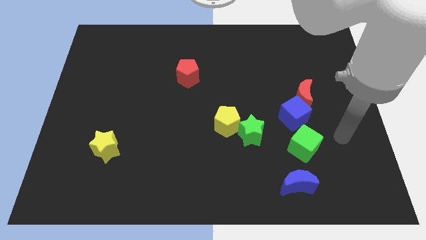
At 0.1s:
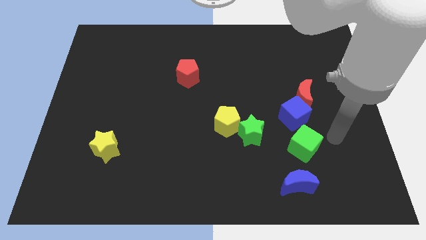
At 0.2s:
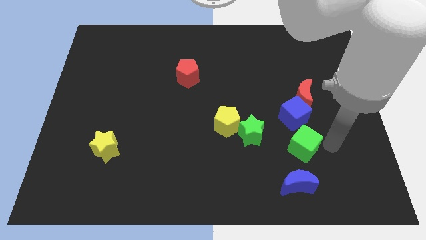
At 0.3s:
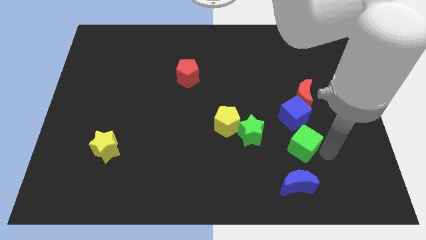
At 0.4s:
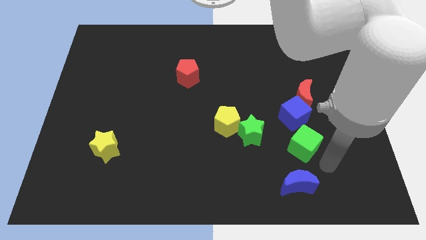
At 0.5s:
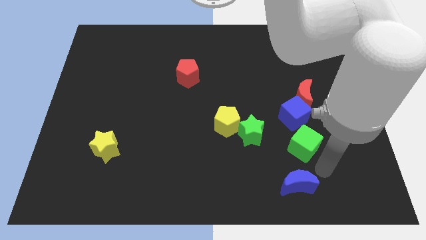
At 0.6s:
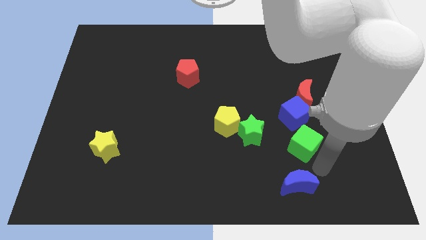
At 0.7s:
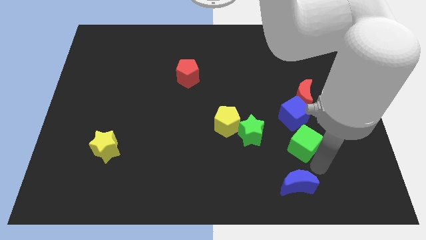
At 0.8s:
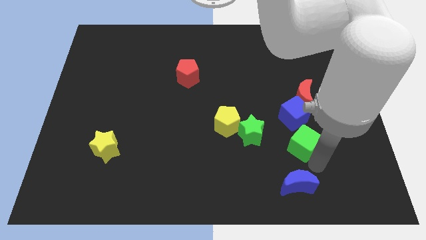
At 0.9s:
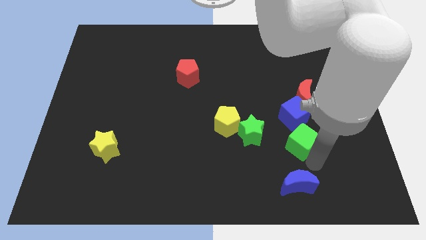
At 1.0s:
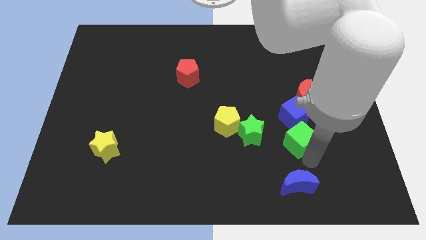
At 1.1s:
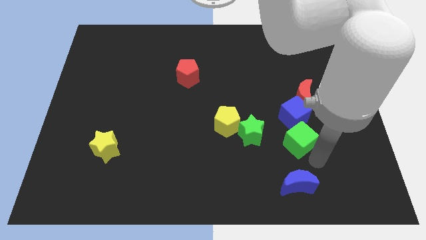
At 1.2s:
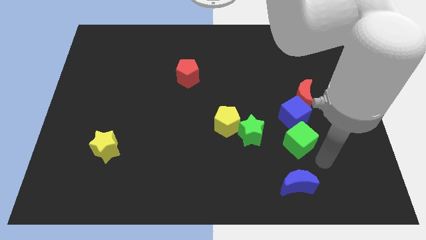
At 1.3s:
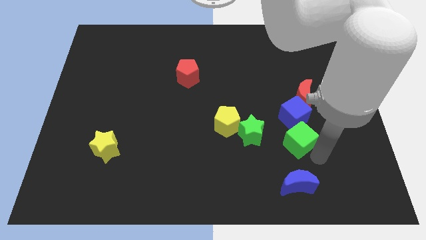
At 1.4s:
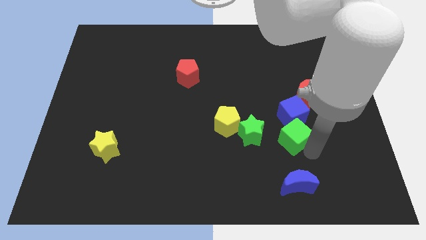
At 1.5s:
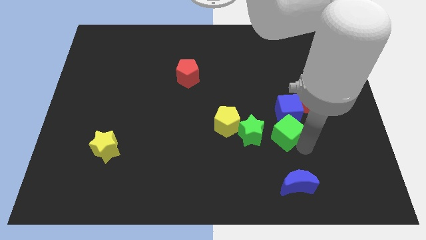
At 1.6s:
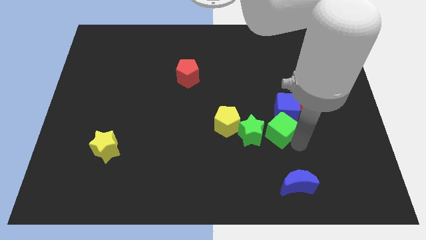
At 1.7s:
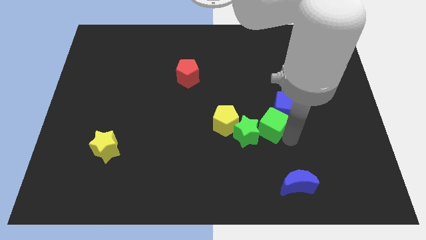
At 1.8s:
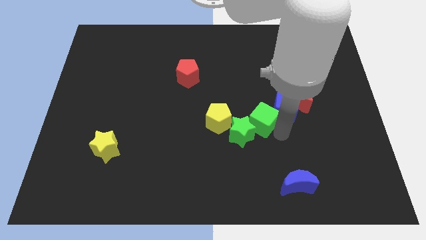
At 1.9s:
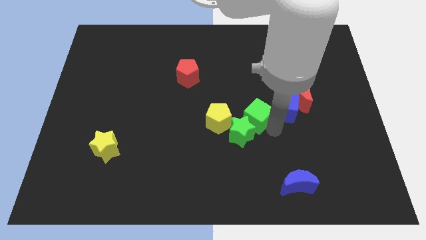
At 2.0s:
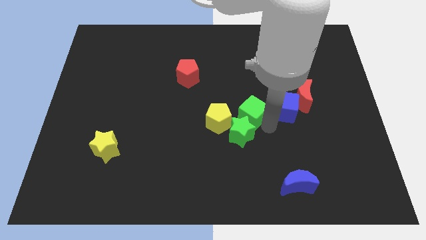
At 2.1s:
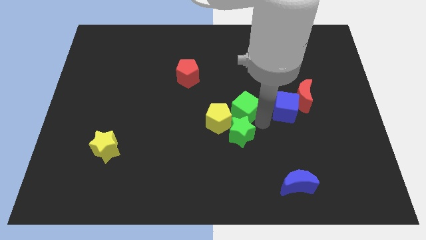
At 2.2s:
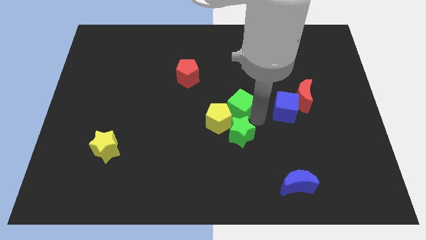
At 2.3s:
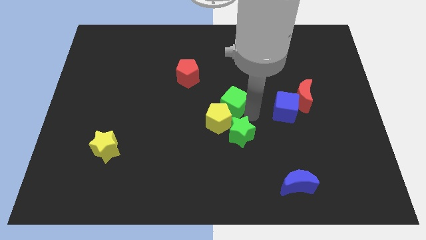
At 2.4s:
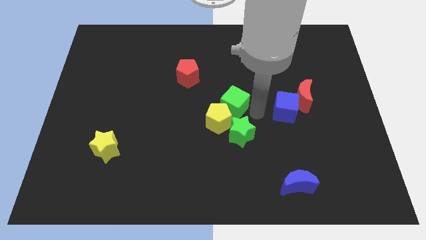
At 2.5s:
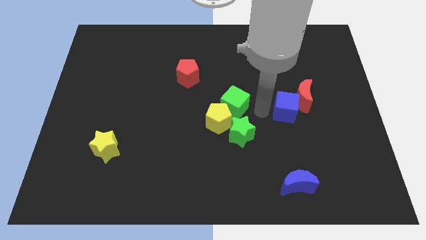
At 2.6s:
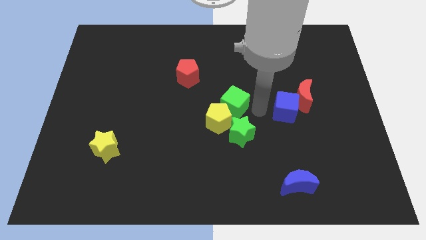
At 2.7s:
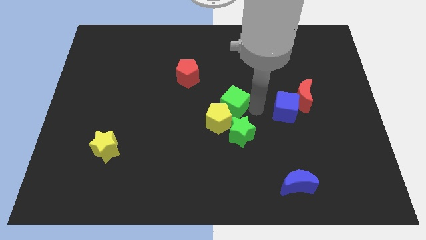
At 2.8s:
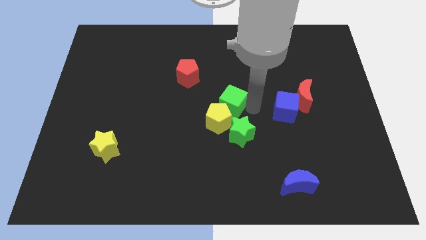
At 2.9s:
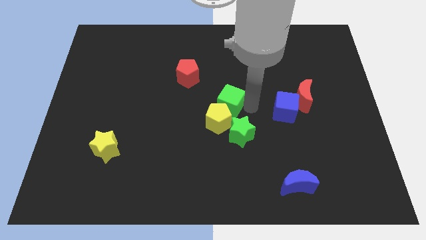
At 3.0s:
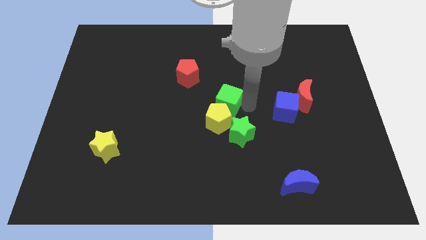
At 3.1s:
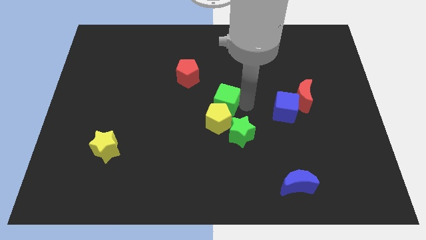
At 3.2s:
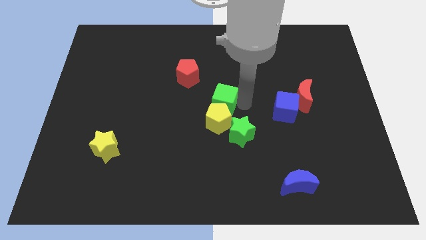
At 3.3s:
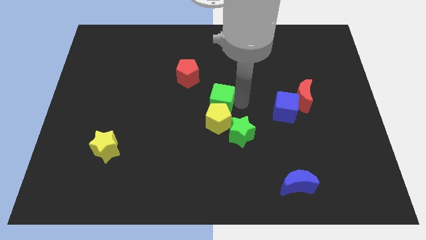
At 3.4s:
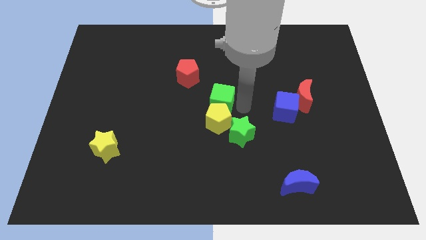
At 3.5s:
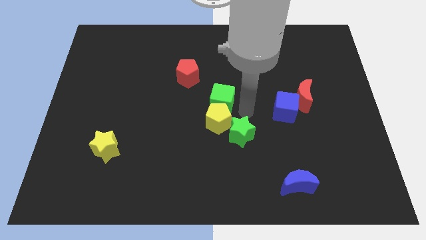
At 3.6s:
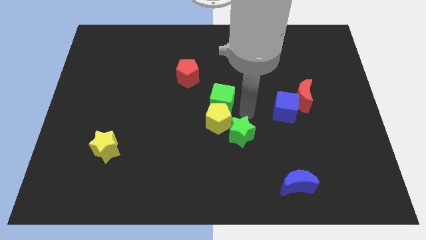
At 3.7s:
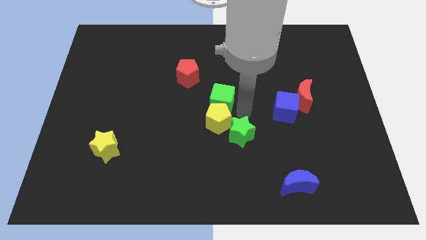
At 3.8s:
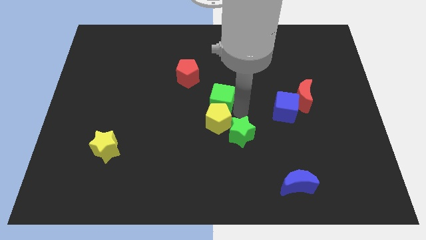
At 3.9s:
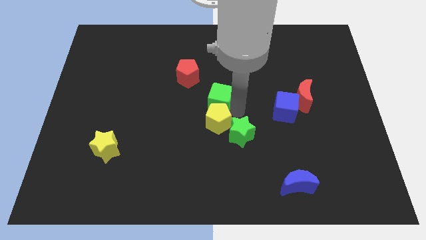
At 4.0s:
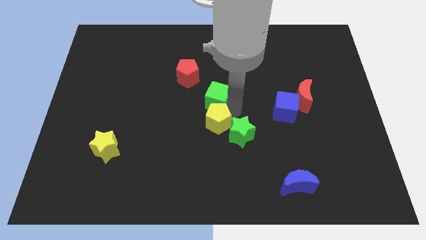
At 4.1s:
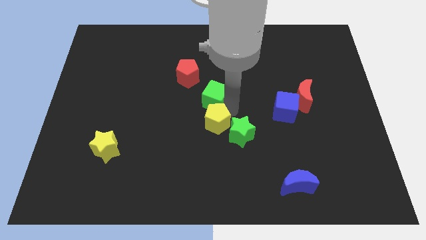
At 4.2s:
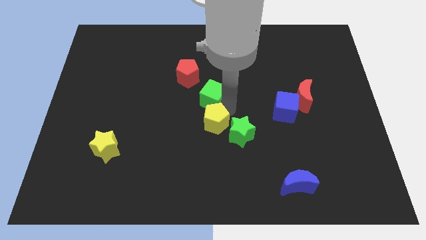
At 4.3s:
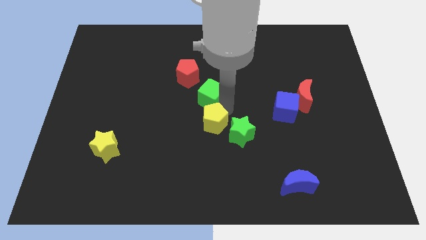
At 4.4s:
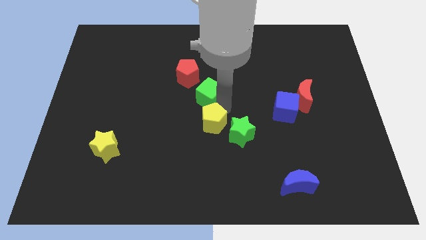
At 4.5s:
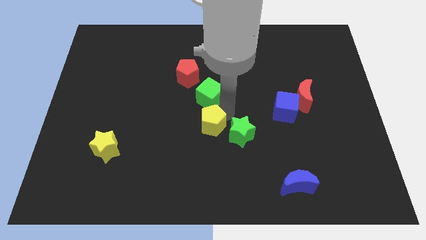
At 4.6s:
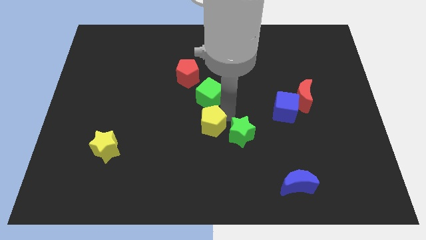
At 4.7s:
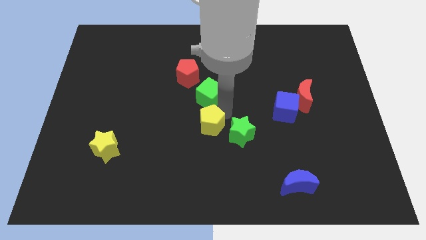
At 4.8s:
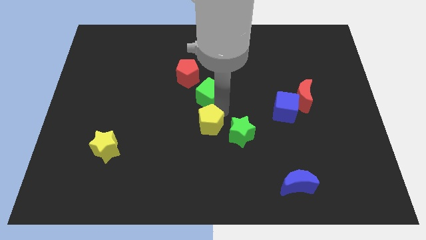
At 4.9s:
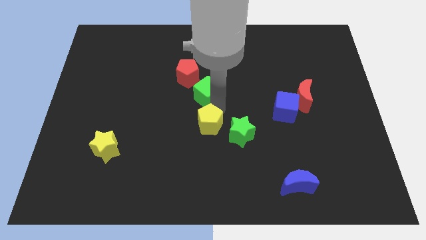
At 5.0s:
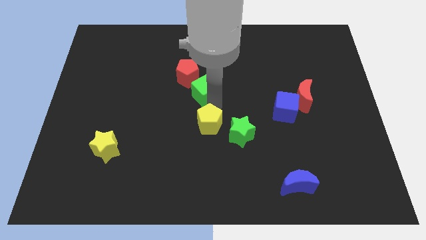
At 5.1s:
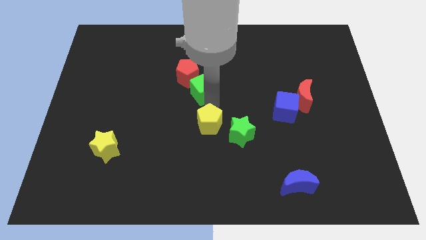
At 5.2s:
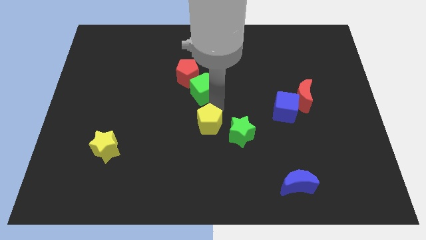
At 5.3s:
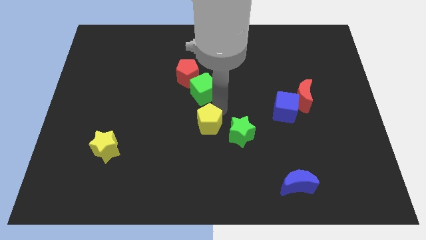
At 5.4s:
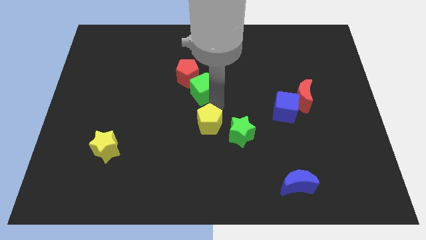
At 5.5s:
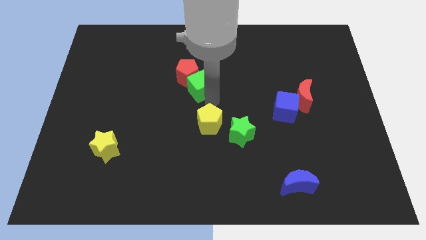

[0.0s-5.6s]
move the green cube next to the red pentagon

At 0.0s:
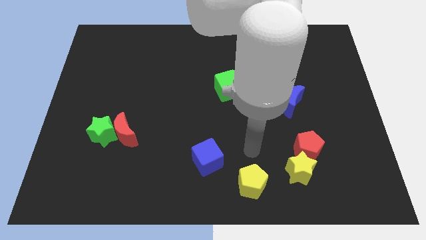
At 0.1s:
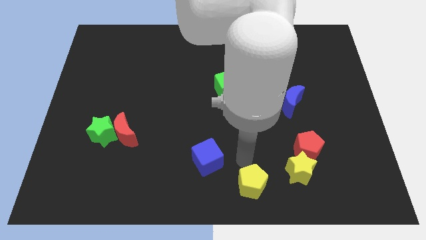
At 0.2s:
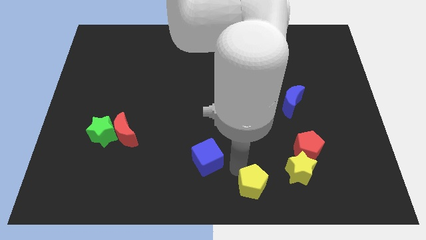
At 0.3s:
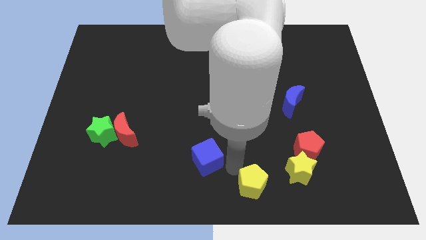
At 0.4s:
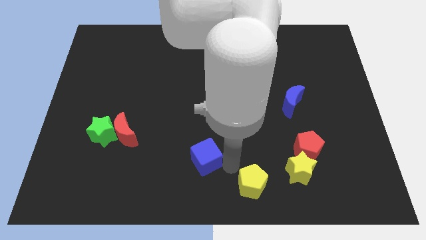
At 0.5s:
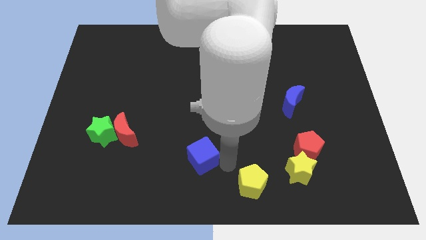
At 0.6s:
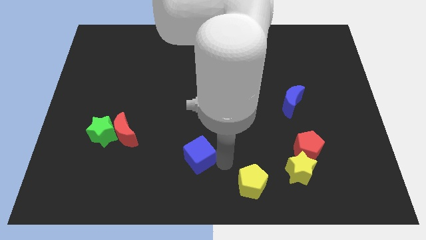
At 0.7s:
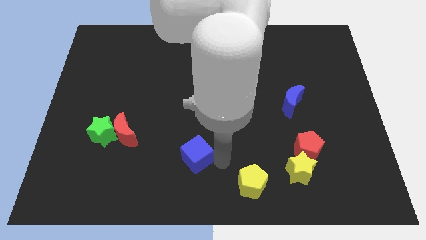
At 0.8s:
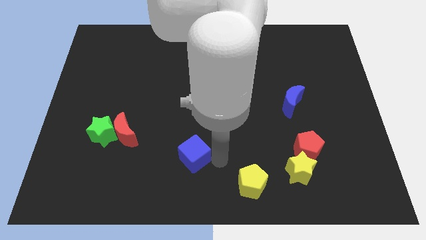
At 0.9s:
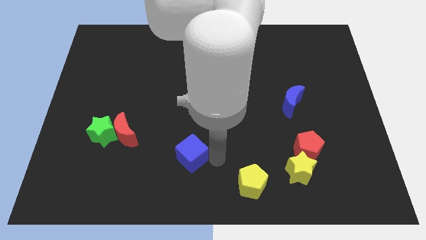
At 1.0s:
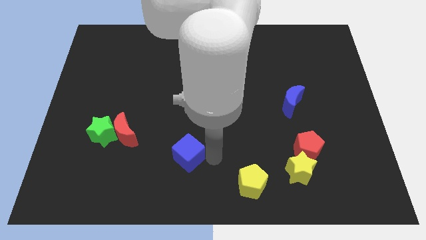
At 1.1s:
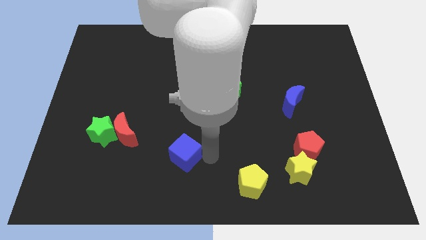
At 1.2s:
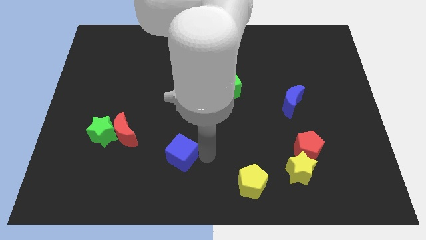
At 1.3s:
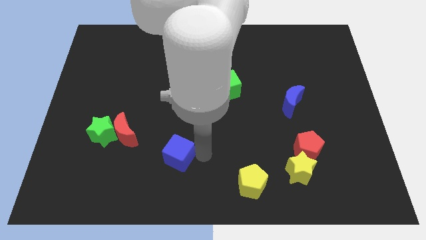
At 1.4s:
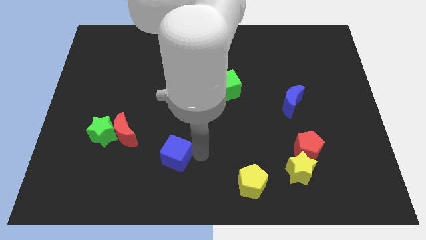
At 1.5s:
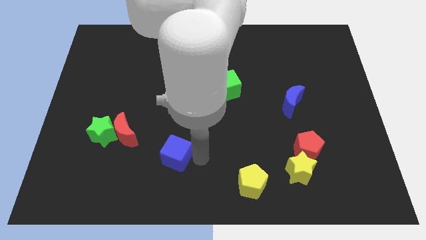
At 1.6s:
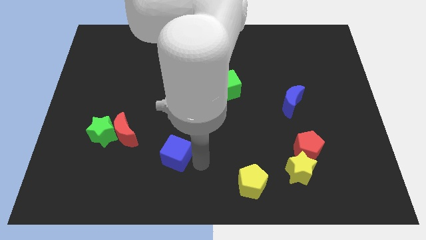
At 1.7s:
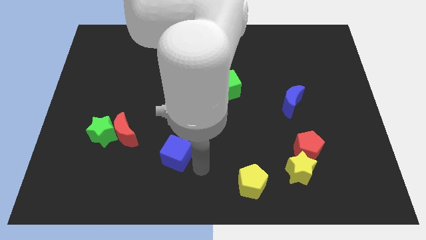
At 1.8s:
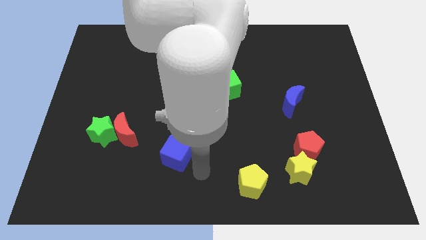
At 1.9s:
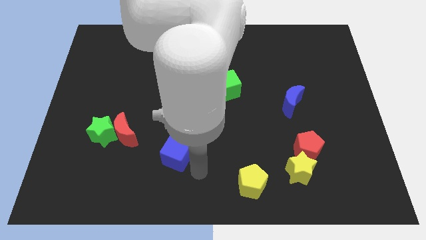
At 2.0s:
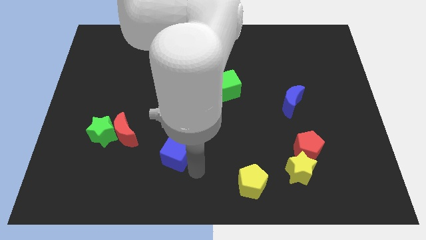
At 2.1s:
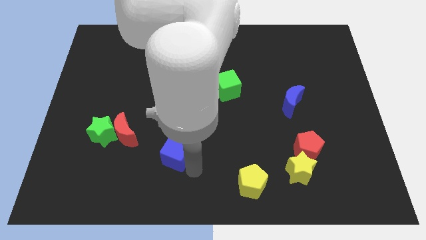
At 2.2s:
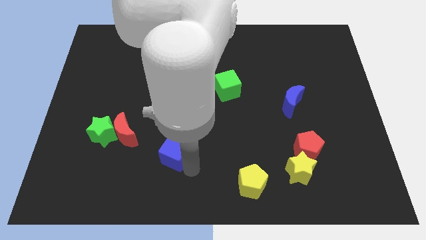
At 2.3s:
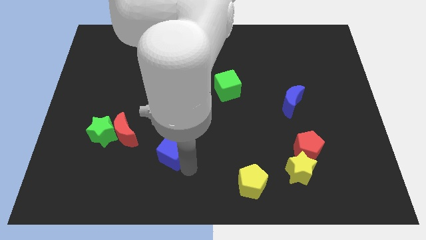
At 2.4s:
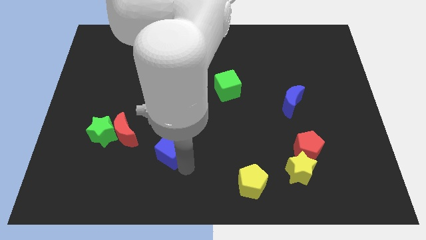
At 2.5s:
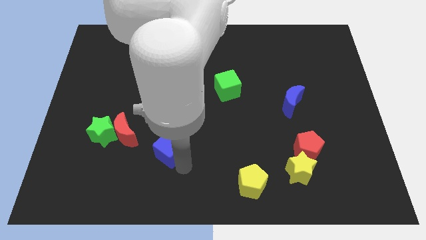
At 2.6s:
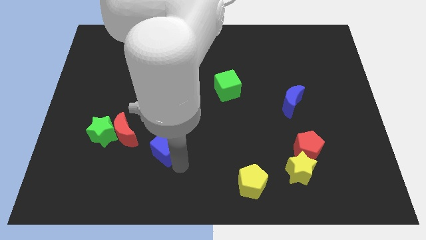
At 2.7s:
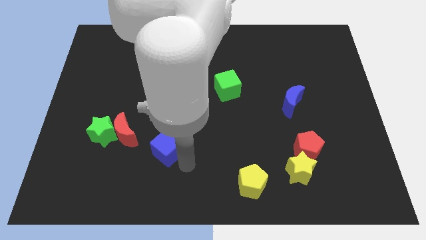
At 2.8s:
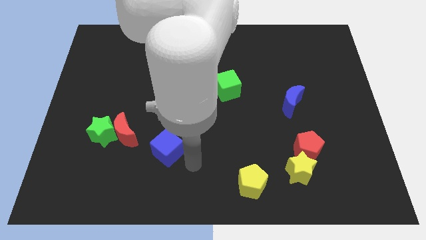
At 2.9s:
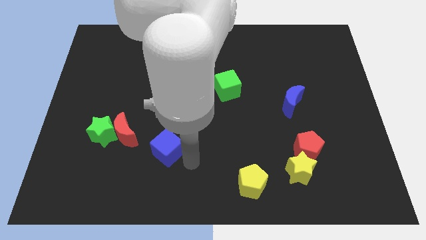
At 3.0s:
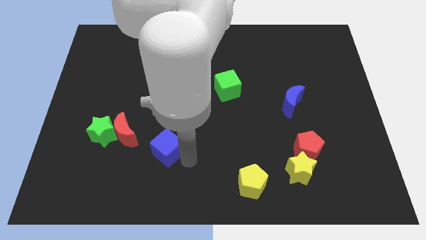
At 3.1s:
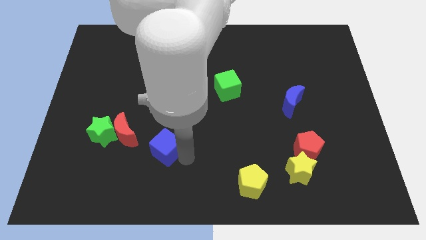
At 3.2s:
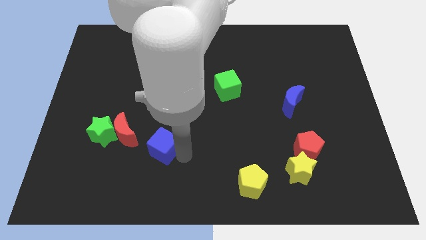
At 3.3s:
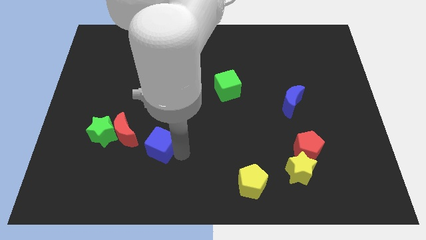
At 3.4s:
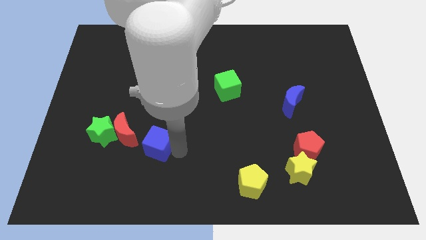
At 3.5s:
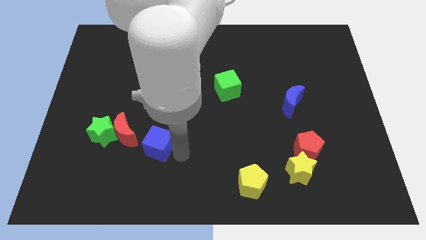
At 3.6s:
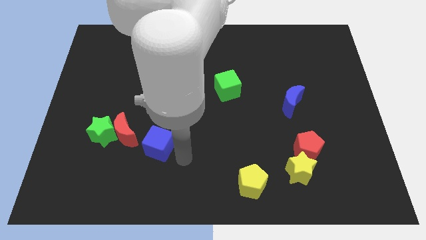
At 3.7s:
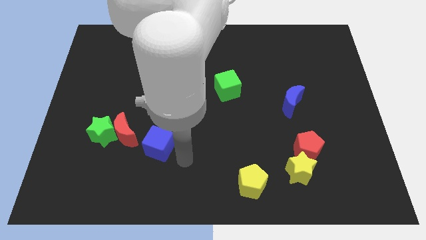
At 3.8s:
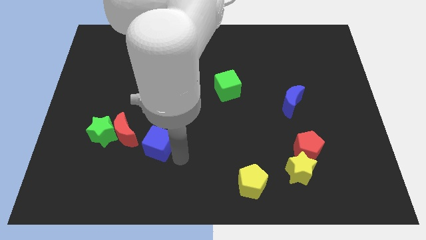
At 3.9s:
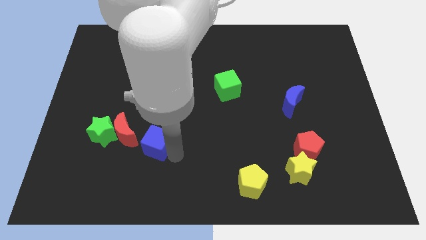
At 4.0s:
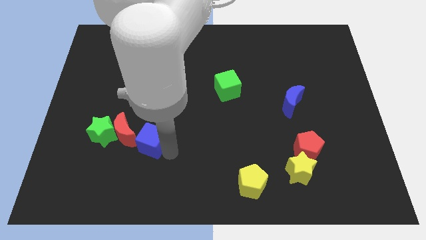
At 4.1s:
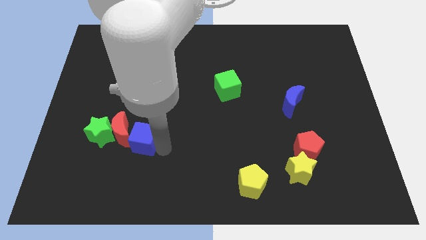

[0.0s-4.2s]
move the blue cube towards the red moon
